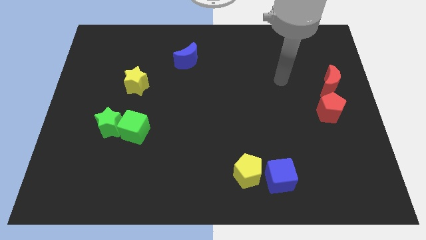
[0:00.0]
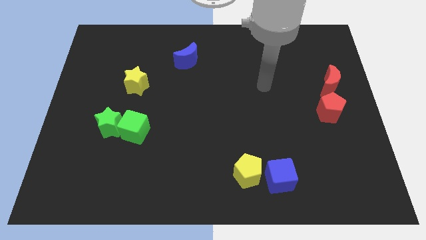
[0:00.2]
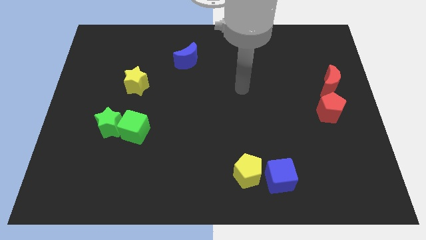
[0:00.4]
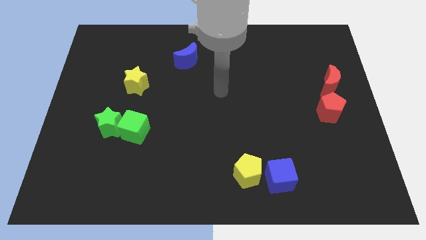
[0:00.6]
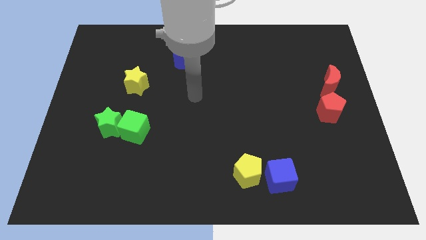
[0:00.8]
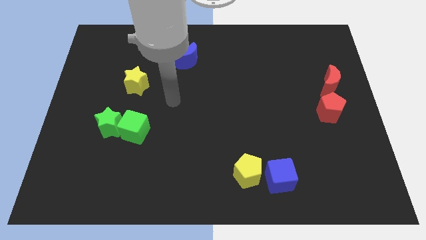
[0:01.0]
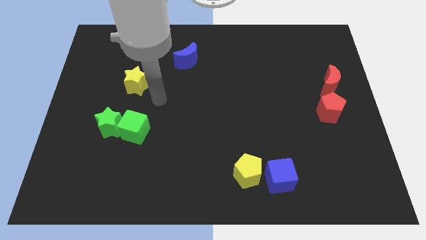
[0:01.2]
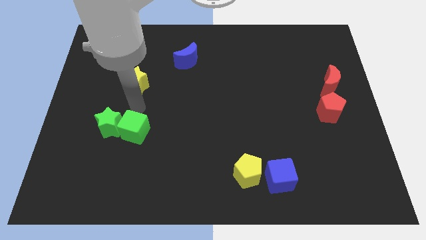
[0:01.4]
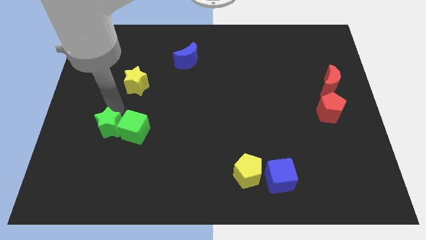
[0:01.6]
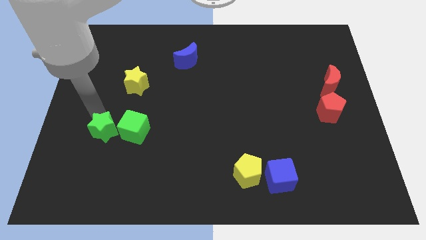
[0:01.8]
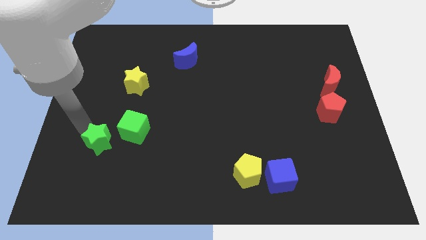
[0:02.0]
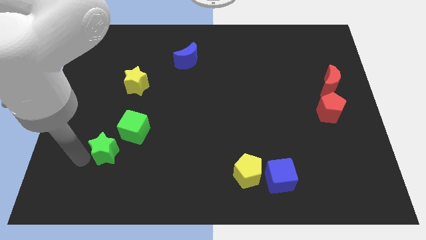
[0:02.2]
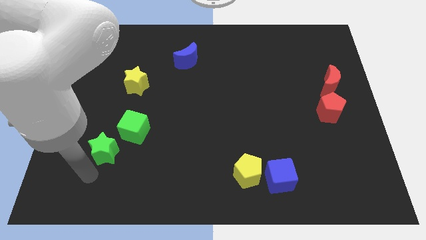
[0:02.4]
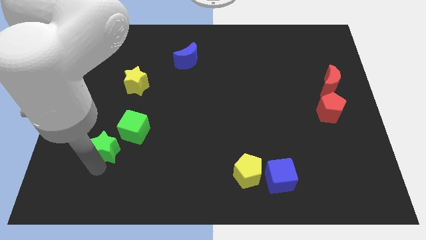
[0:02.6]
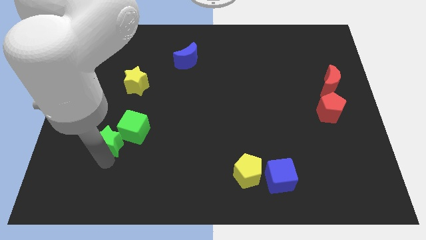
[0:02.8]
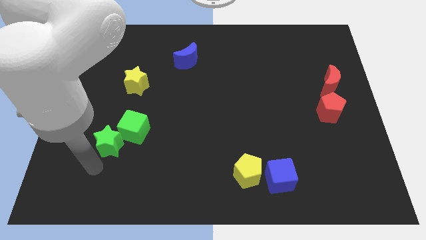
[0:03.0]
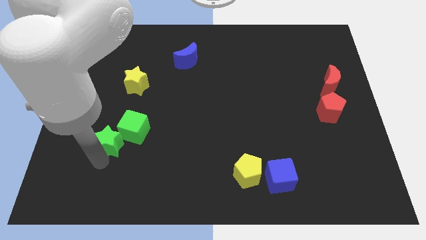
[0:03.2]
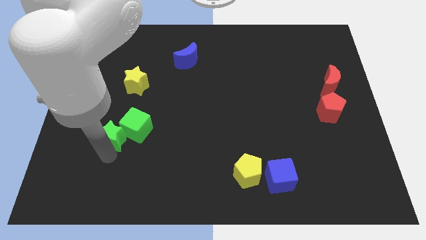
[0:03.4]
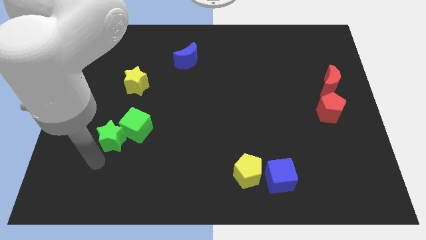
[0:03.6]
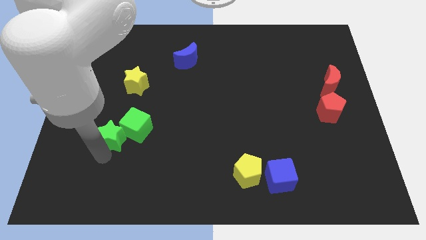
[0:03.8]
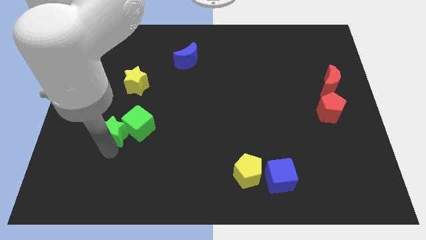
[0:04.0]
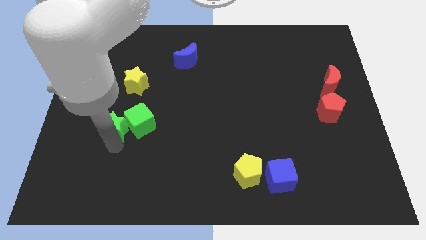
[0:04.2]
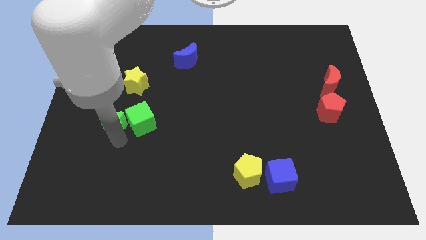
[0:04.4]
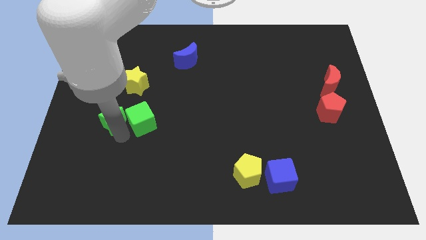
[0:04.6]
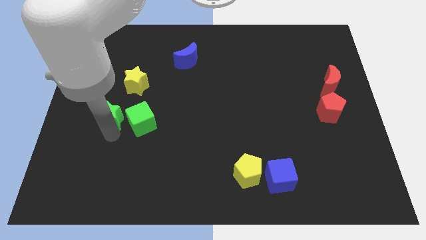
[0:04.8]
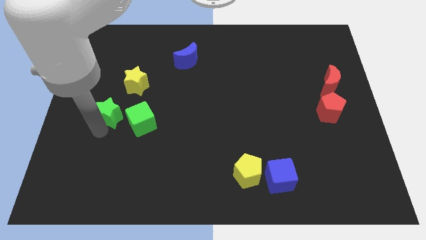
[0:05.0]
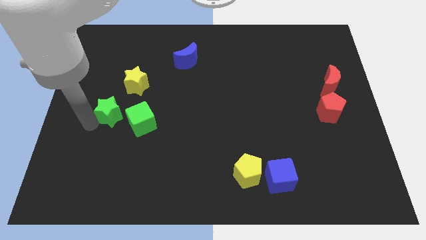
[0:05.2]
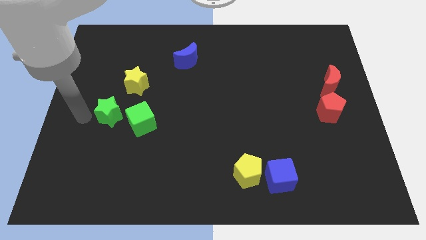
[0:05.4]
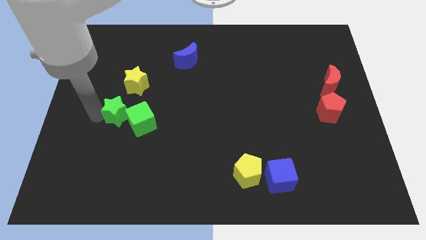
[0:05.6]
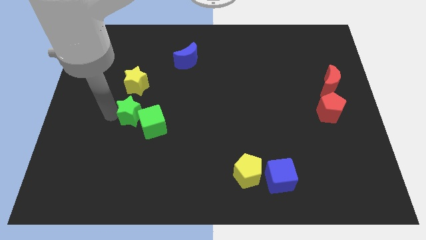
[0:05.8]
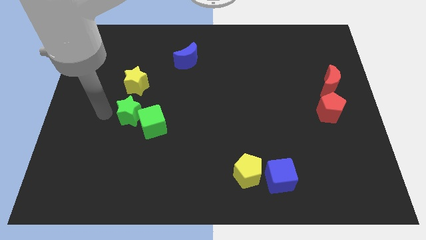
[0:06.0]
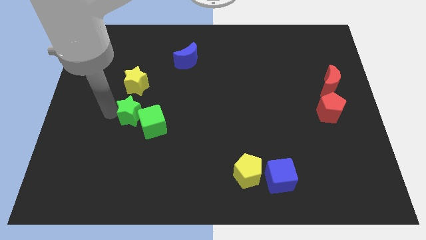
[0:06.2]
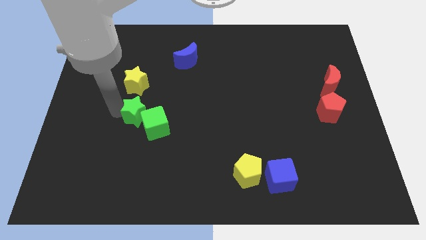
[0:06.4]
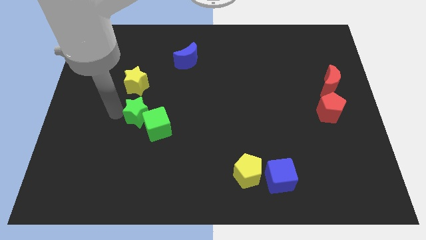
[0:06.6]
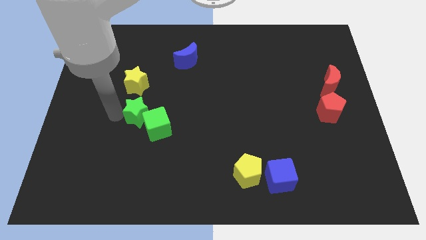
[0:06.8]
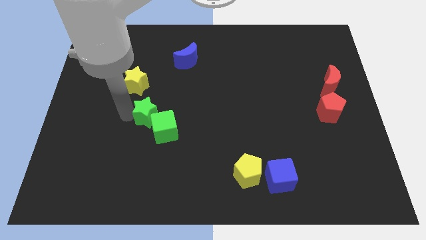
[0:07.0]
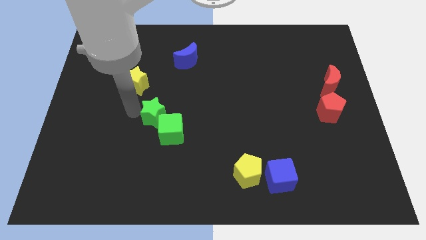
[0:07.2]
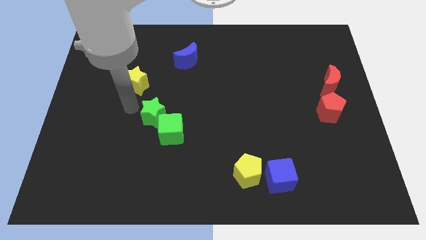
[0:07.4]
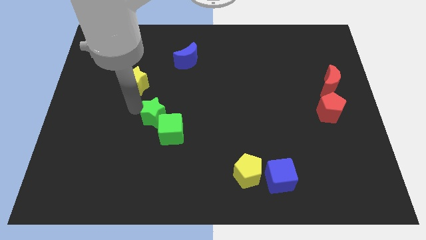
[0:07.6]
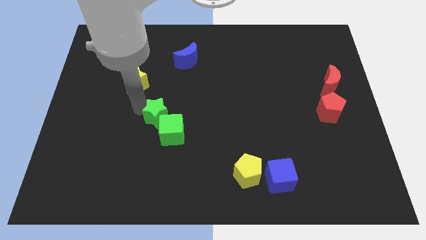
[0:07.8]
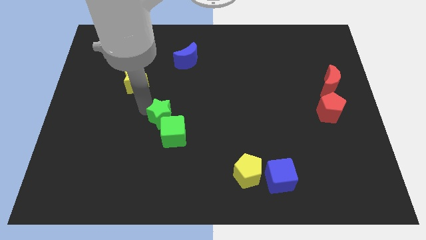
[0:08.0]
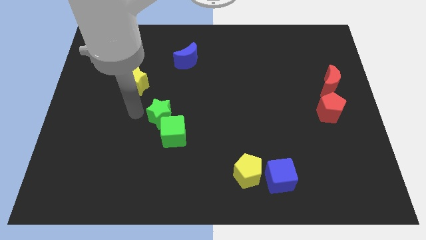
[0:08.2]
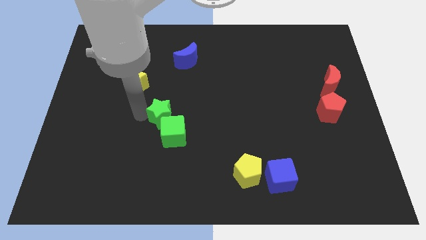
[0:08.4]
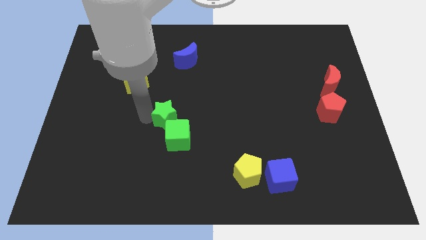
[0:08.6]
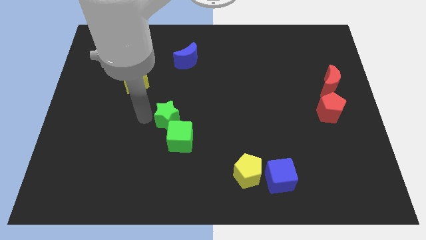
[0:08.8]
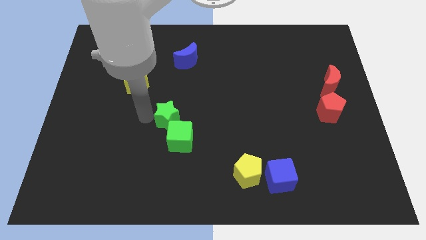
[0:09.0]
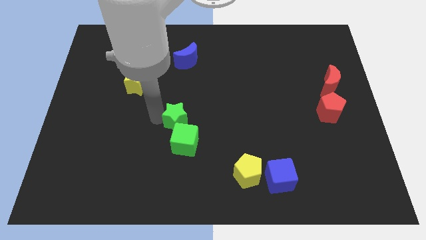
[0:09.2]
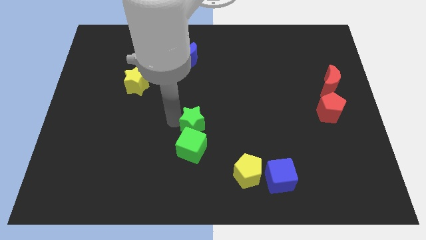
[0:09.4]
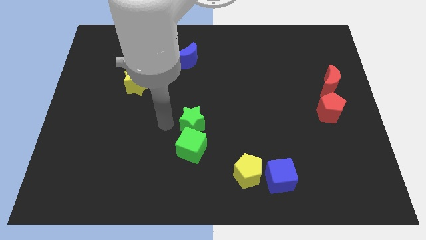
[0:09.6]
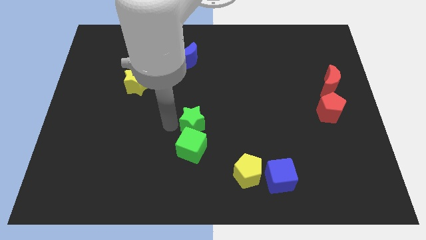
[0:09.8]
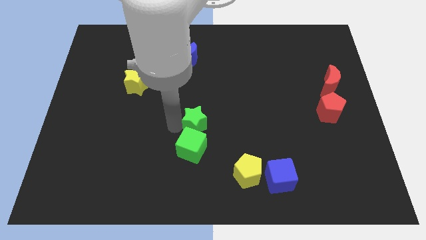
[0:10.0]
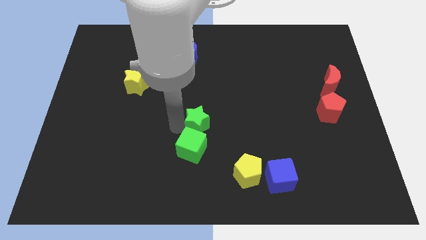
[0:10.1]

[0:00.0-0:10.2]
slide the green star to the right

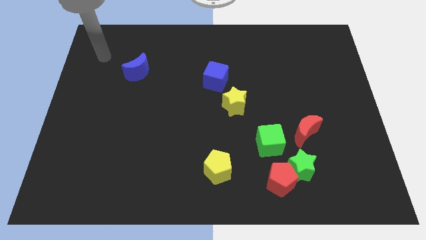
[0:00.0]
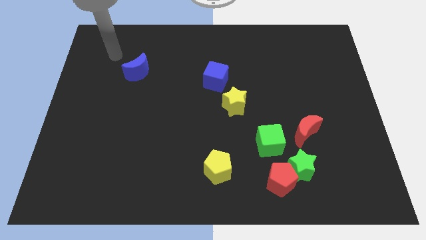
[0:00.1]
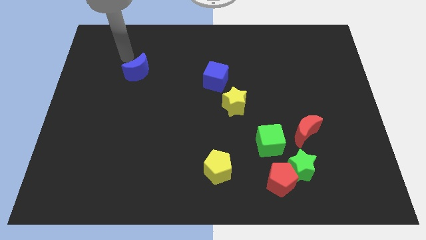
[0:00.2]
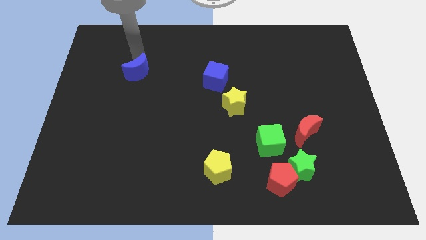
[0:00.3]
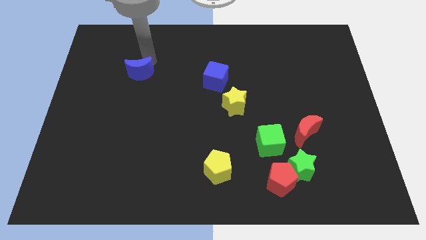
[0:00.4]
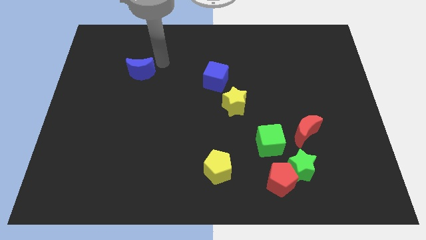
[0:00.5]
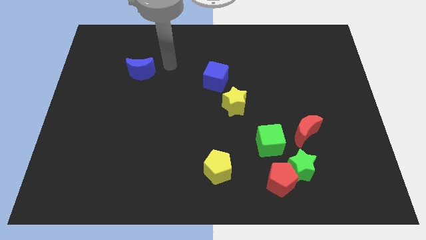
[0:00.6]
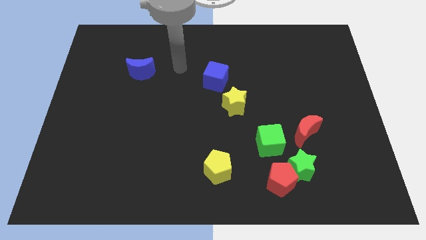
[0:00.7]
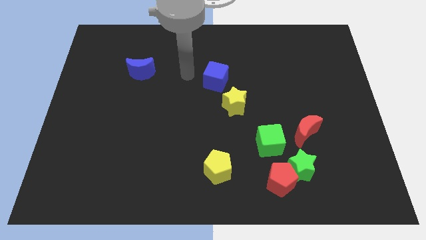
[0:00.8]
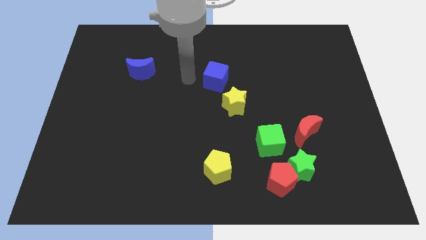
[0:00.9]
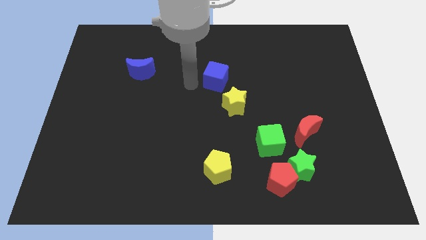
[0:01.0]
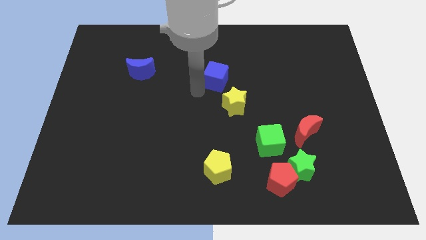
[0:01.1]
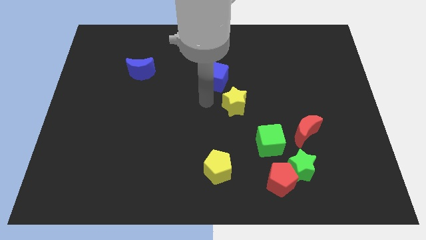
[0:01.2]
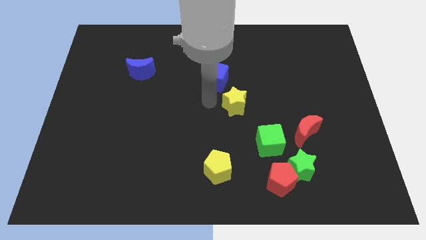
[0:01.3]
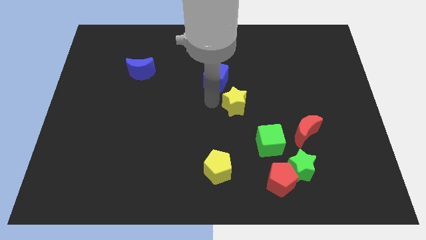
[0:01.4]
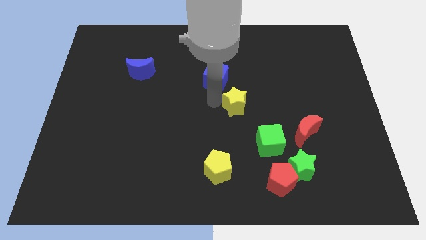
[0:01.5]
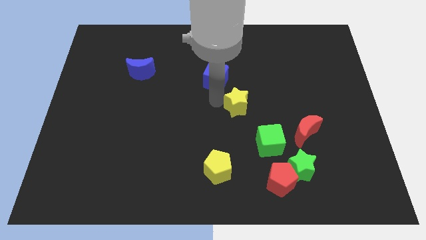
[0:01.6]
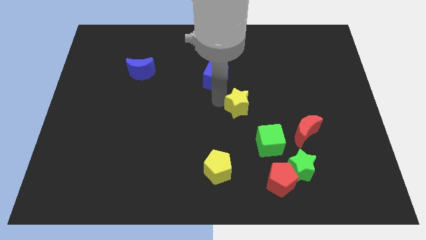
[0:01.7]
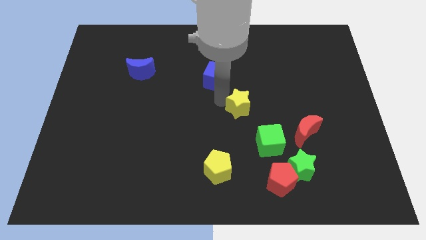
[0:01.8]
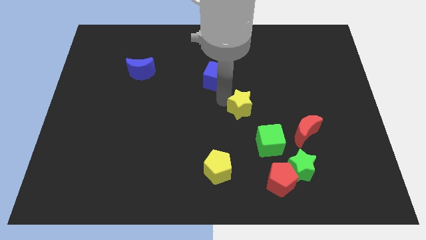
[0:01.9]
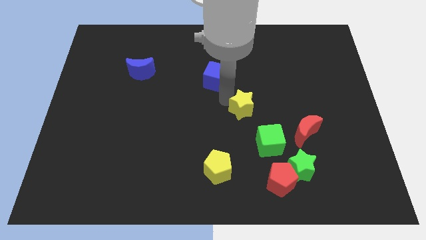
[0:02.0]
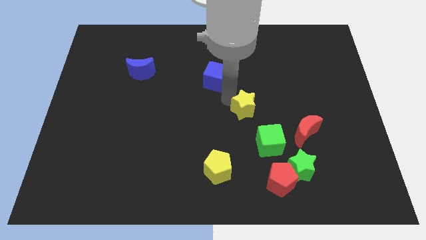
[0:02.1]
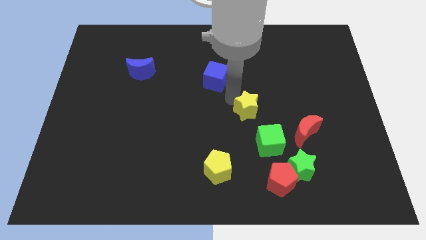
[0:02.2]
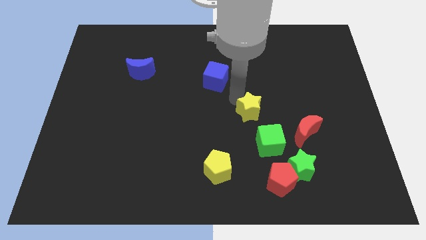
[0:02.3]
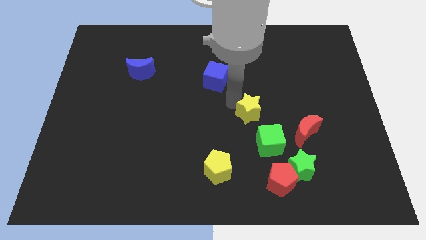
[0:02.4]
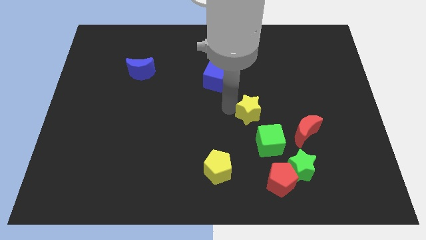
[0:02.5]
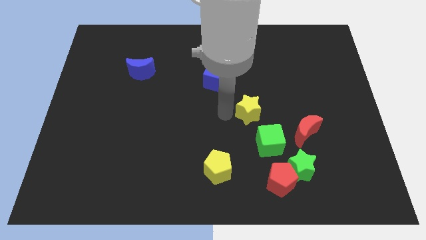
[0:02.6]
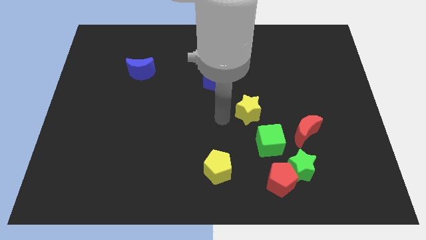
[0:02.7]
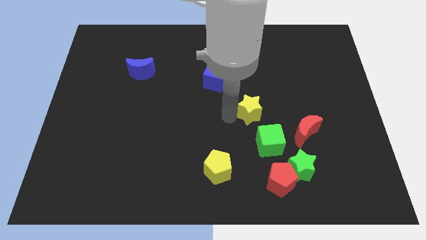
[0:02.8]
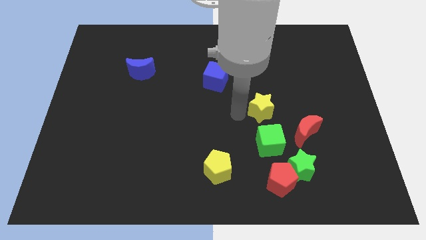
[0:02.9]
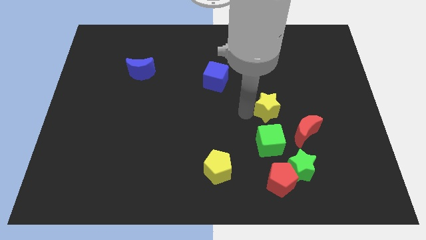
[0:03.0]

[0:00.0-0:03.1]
slightly move the yellow star right
